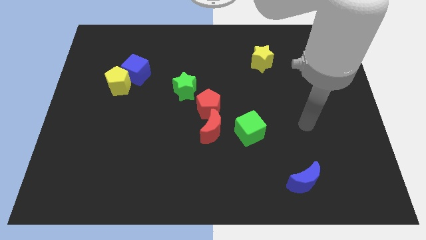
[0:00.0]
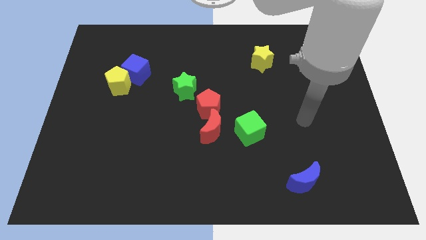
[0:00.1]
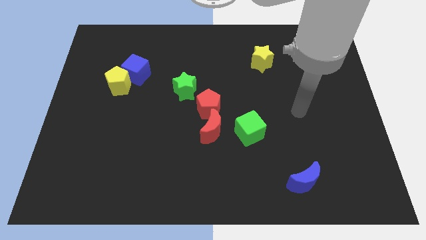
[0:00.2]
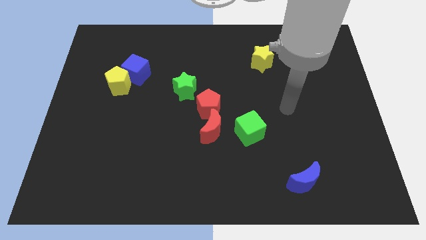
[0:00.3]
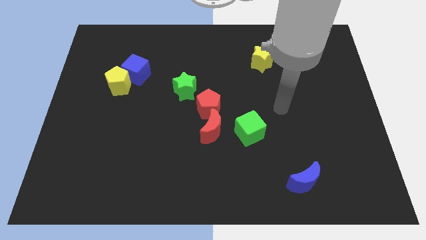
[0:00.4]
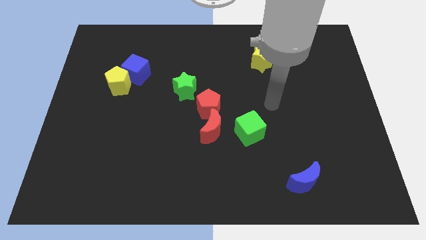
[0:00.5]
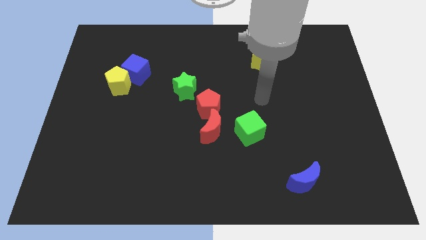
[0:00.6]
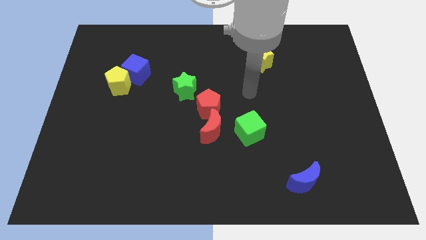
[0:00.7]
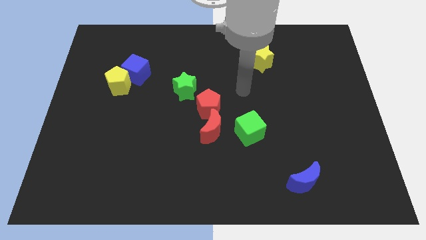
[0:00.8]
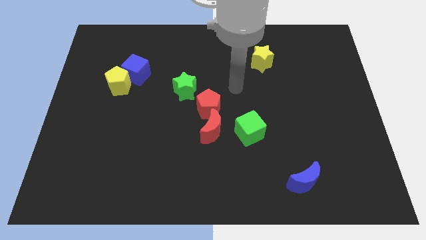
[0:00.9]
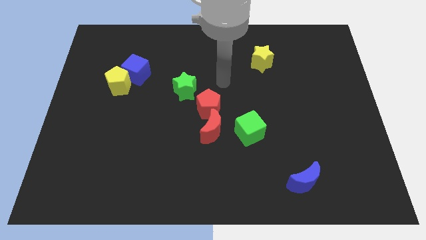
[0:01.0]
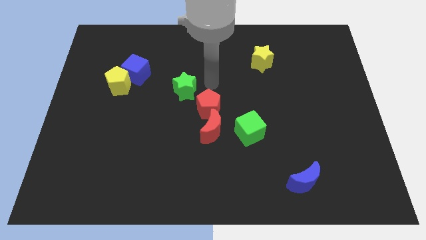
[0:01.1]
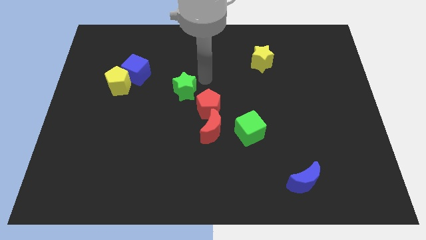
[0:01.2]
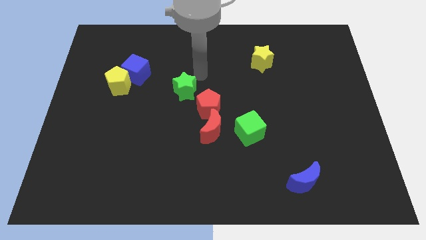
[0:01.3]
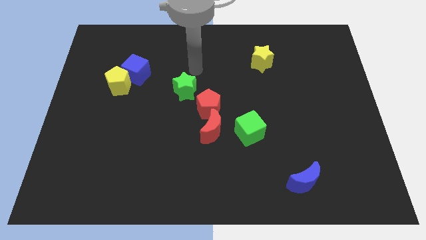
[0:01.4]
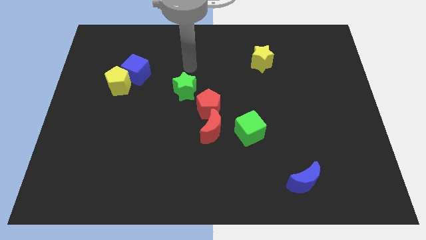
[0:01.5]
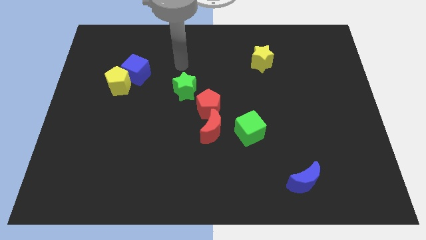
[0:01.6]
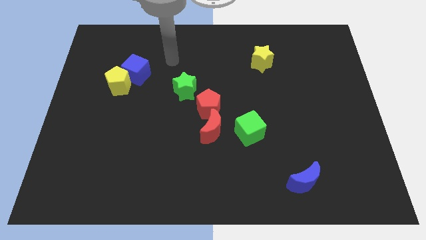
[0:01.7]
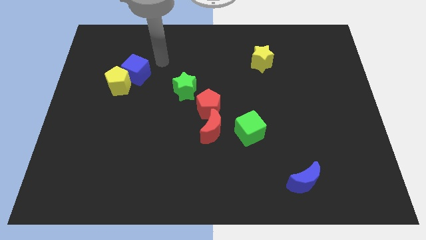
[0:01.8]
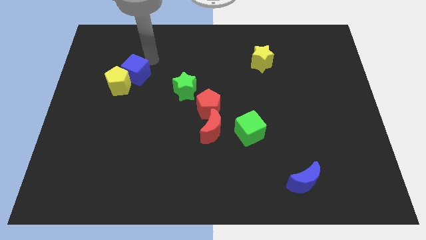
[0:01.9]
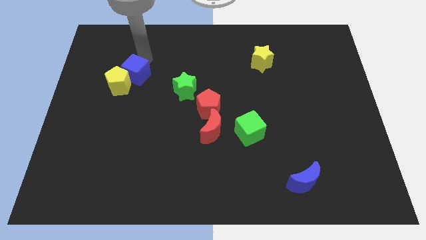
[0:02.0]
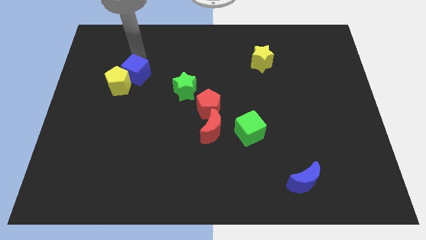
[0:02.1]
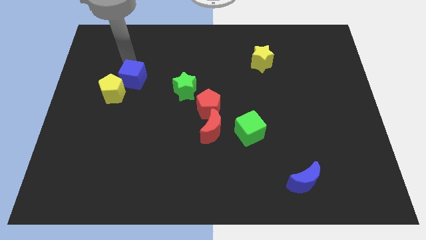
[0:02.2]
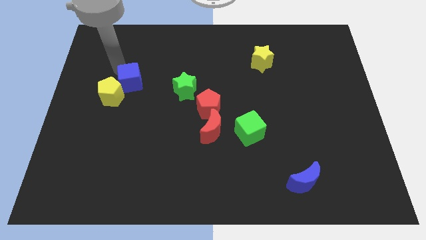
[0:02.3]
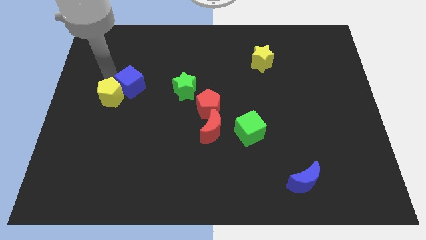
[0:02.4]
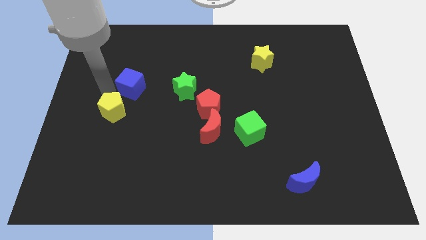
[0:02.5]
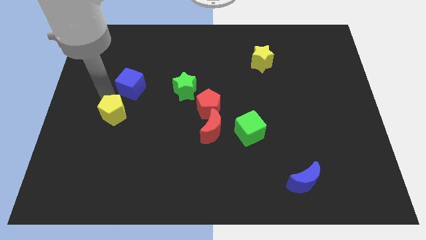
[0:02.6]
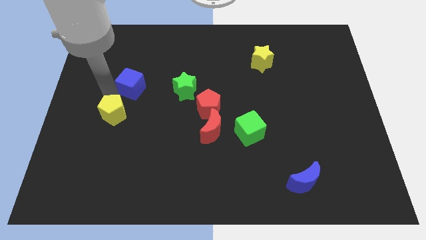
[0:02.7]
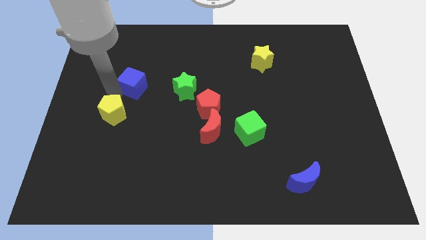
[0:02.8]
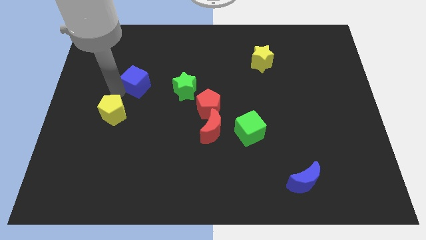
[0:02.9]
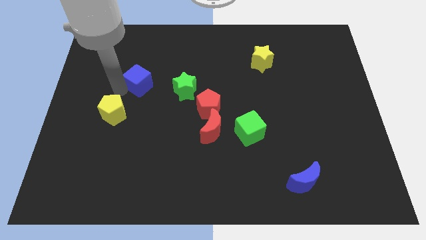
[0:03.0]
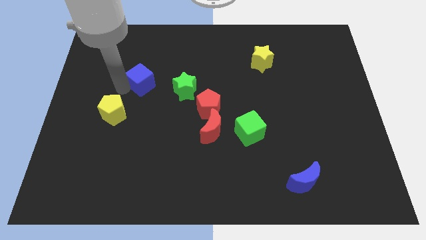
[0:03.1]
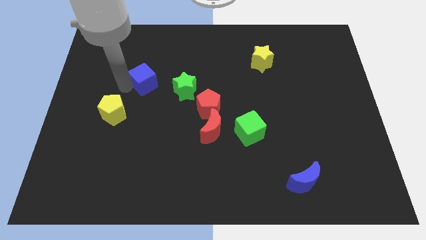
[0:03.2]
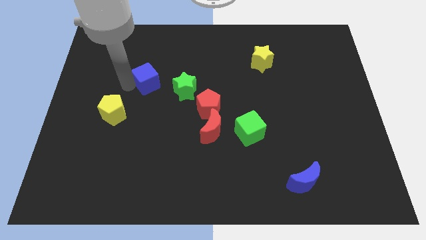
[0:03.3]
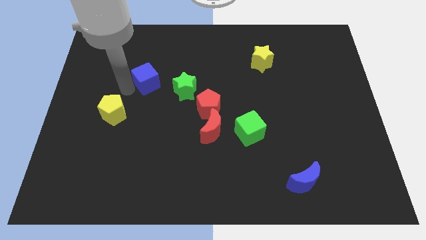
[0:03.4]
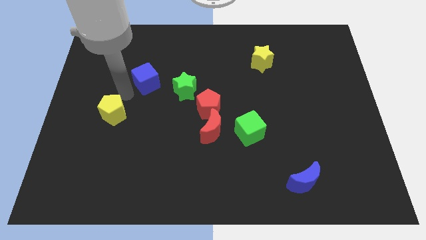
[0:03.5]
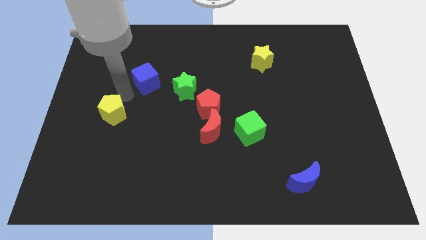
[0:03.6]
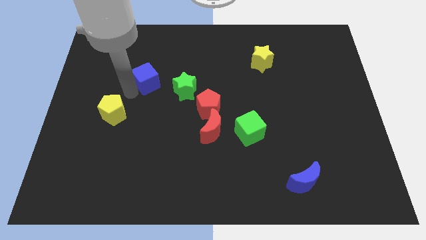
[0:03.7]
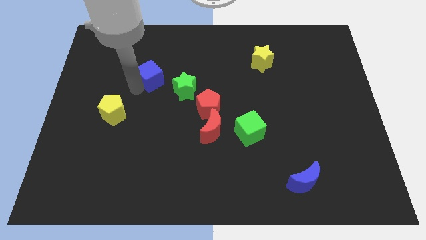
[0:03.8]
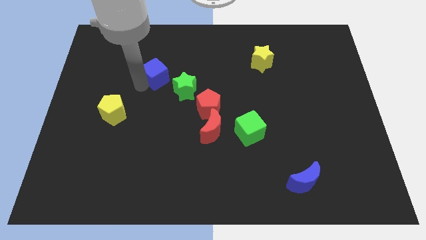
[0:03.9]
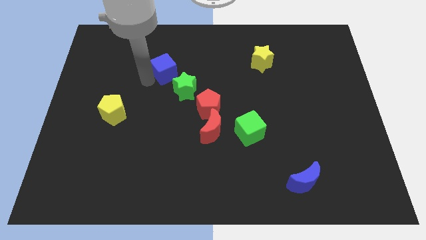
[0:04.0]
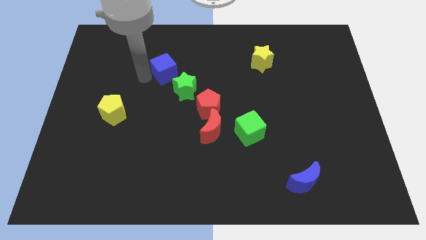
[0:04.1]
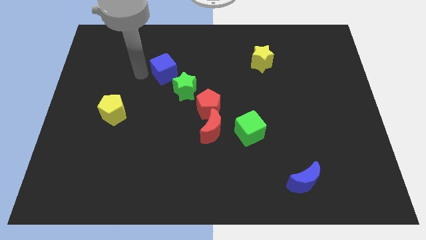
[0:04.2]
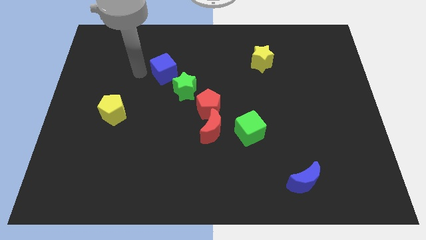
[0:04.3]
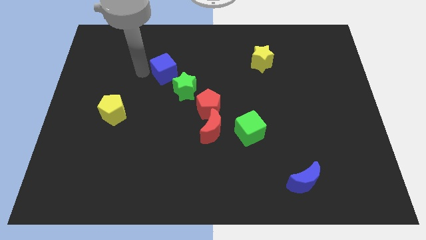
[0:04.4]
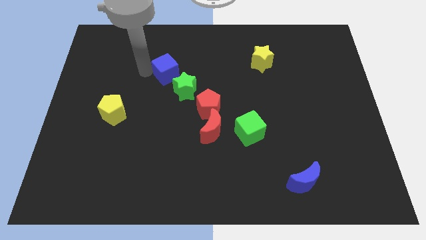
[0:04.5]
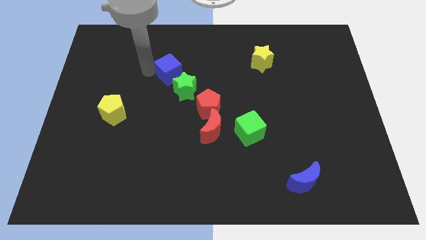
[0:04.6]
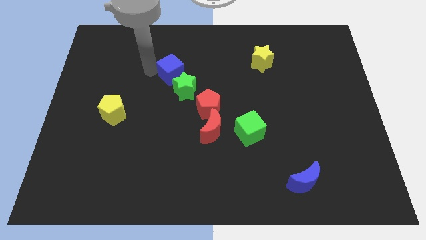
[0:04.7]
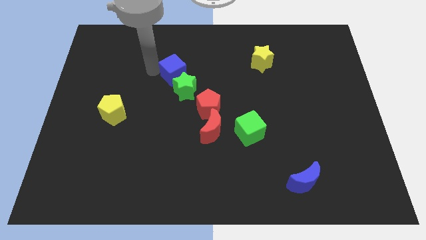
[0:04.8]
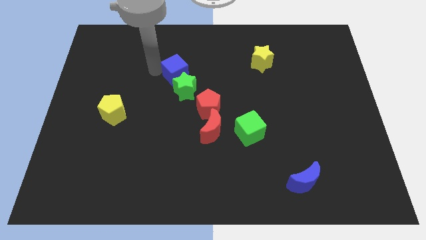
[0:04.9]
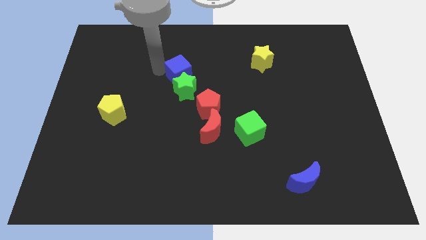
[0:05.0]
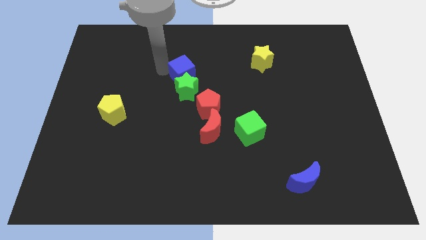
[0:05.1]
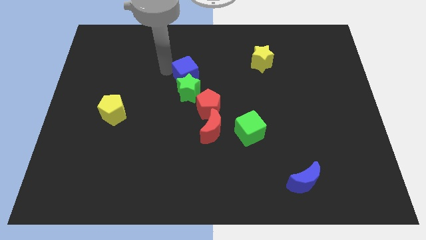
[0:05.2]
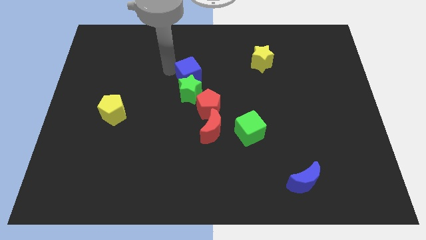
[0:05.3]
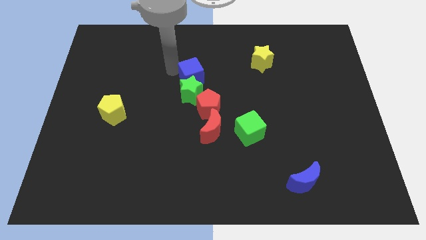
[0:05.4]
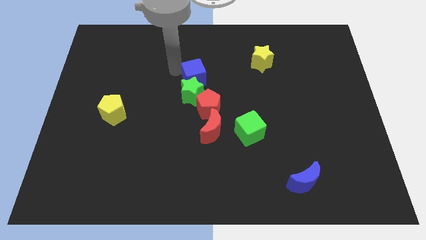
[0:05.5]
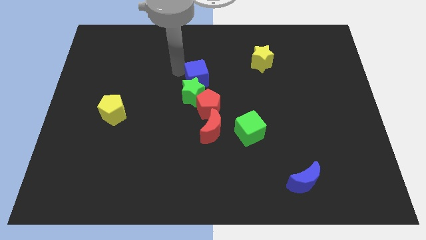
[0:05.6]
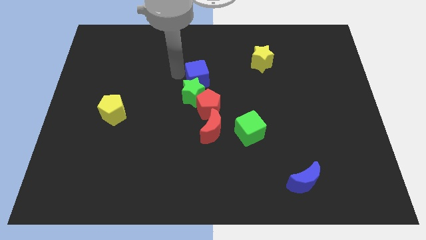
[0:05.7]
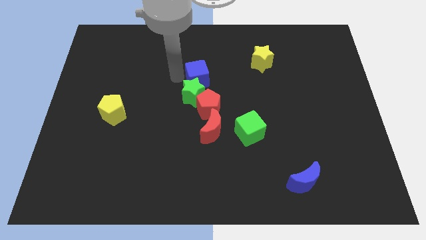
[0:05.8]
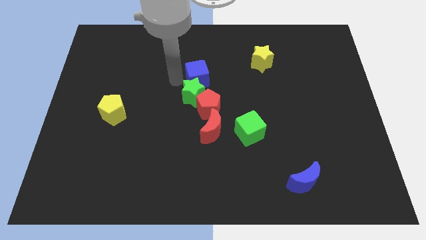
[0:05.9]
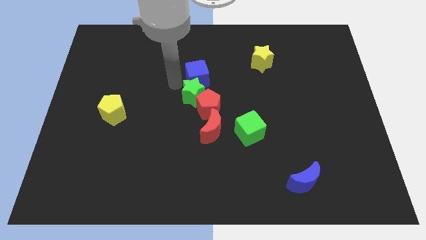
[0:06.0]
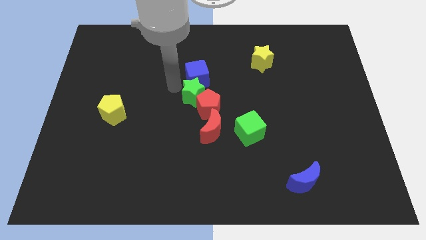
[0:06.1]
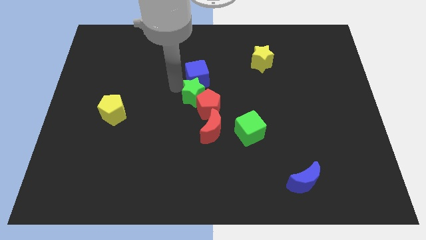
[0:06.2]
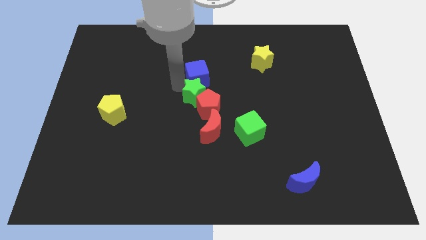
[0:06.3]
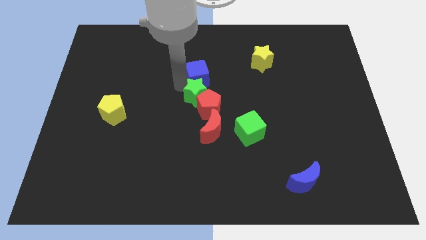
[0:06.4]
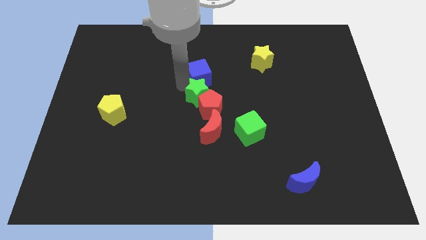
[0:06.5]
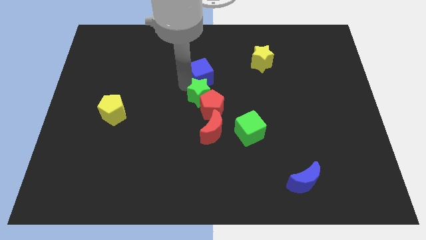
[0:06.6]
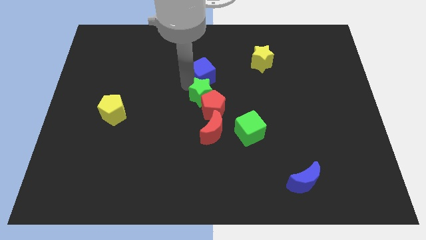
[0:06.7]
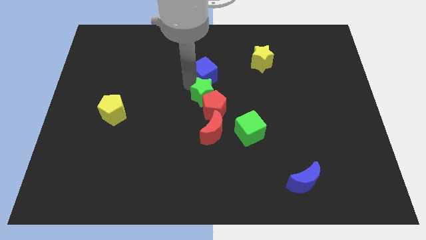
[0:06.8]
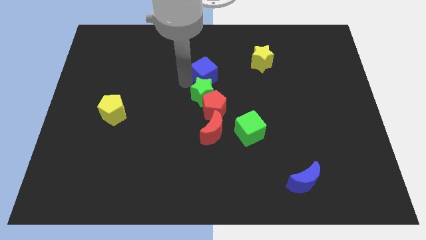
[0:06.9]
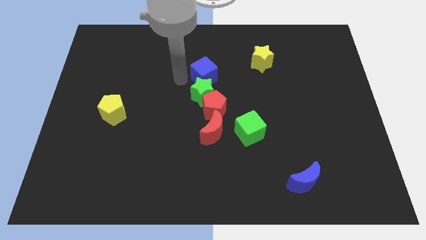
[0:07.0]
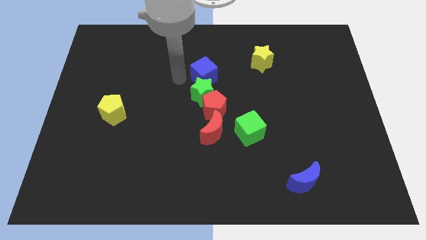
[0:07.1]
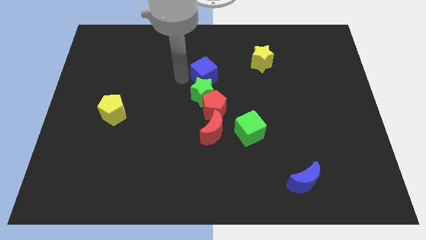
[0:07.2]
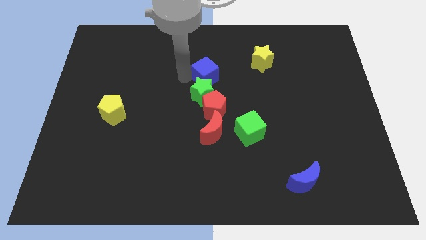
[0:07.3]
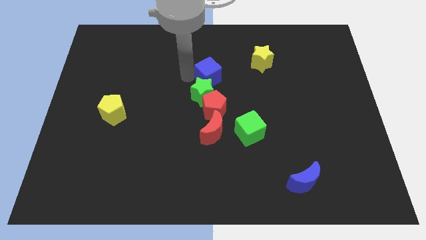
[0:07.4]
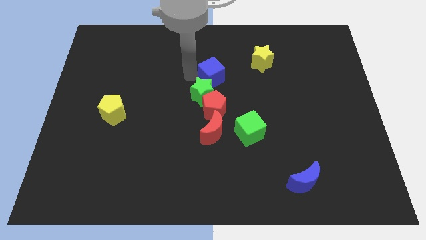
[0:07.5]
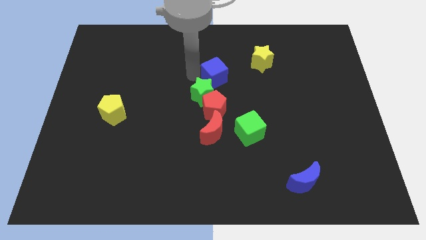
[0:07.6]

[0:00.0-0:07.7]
push the blue cube right

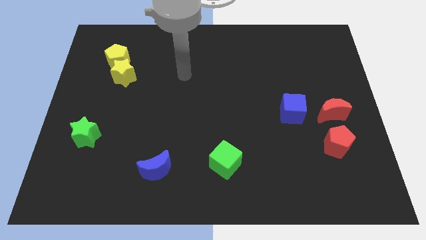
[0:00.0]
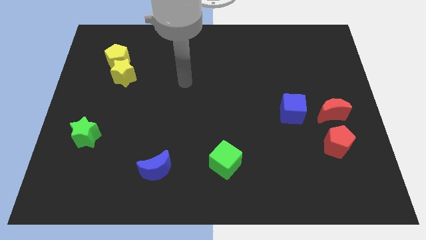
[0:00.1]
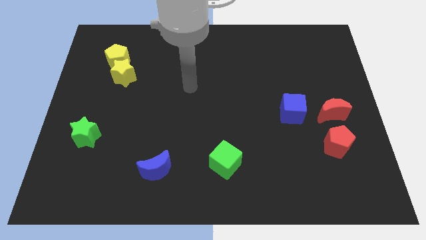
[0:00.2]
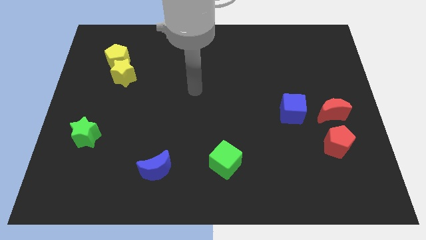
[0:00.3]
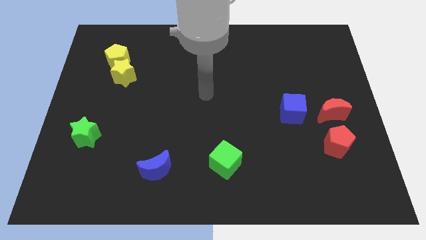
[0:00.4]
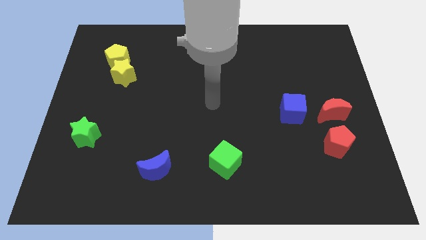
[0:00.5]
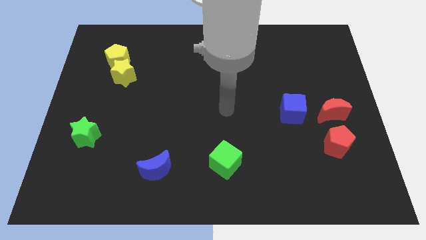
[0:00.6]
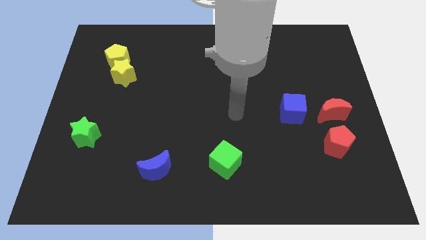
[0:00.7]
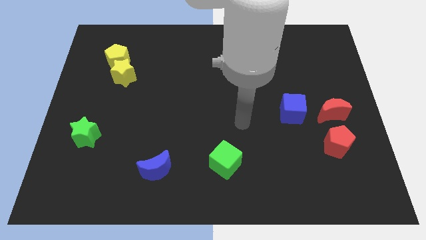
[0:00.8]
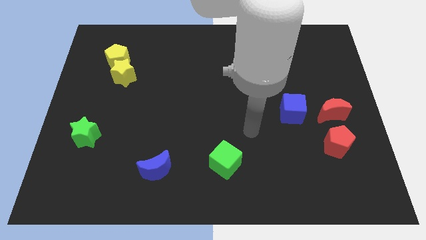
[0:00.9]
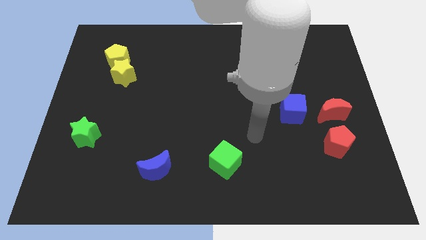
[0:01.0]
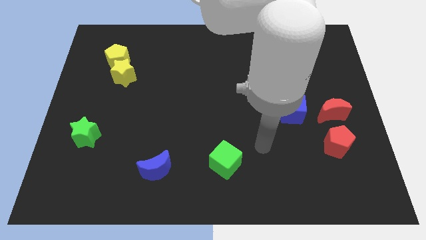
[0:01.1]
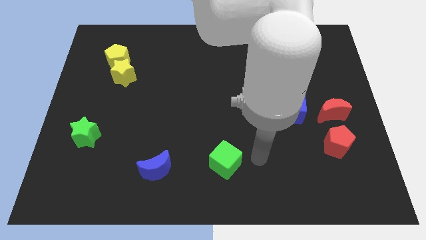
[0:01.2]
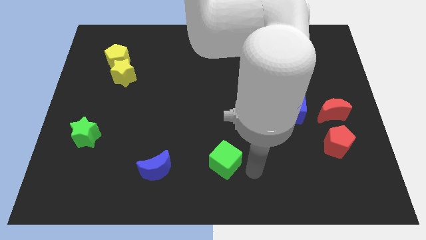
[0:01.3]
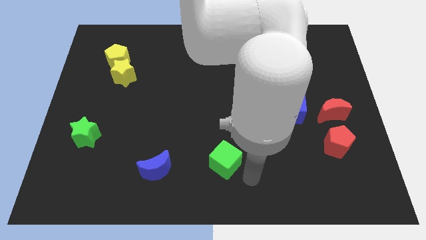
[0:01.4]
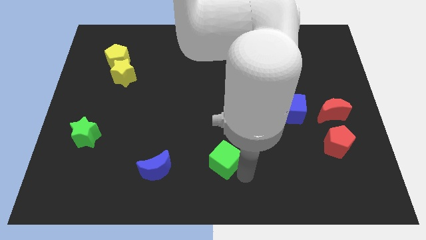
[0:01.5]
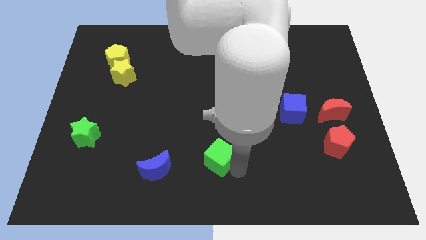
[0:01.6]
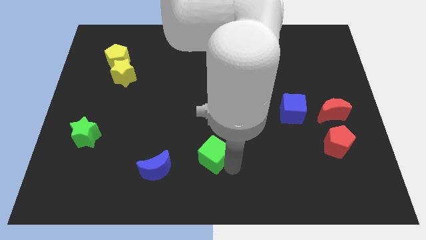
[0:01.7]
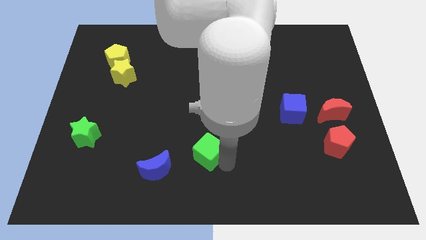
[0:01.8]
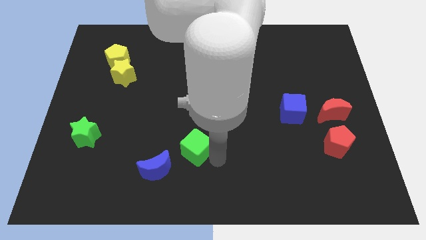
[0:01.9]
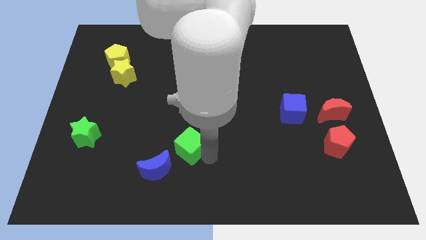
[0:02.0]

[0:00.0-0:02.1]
slightly move the green cube upwards and left diagonally
